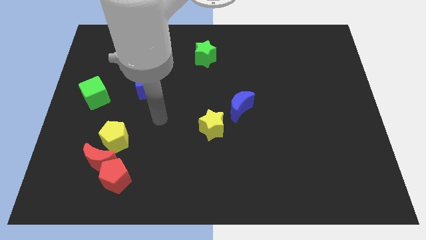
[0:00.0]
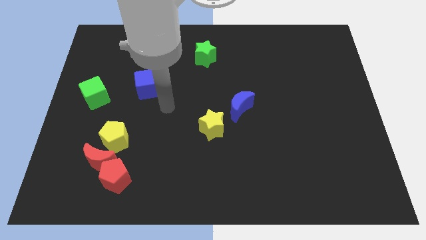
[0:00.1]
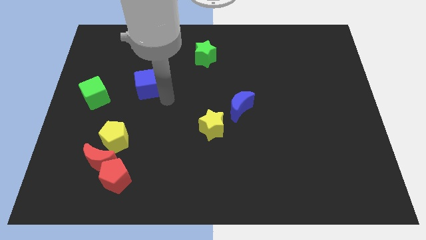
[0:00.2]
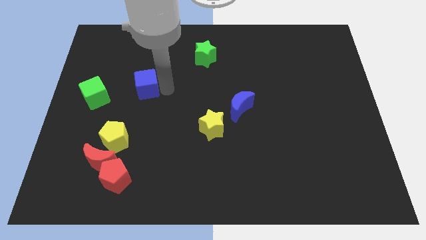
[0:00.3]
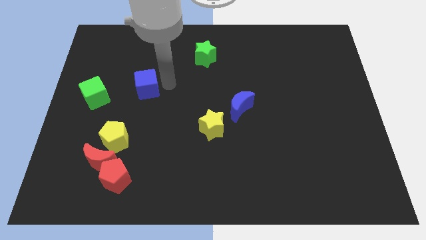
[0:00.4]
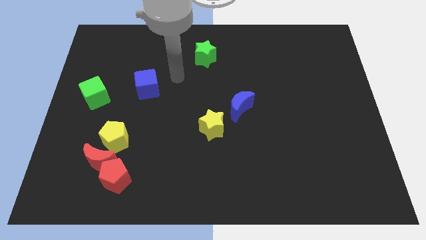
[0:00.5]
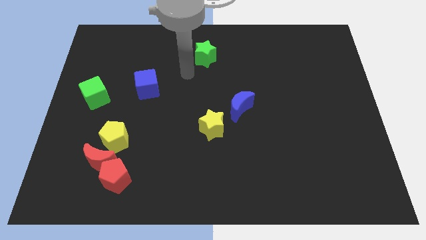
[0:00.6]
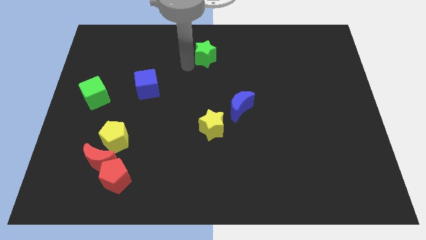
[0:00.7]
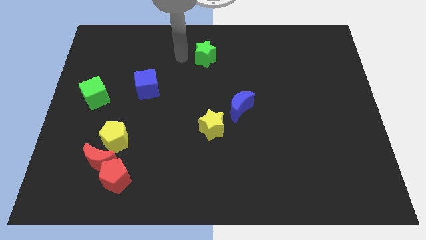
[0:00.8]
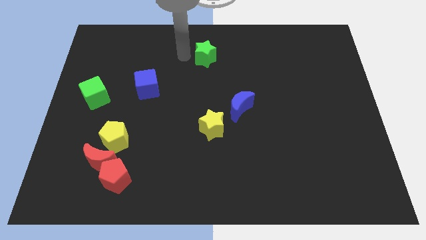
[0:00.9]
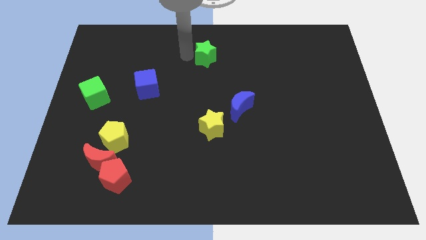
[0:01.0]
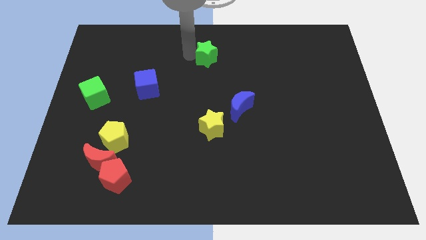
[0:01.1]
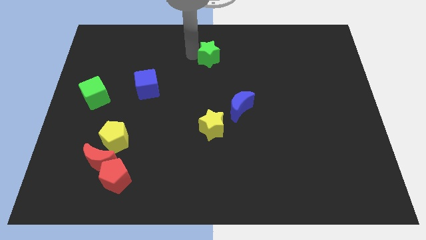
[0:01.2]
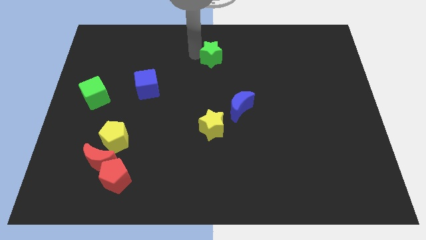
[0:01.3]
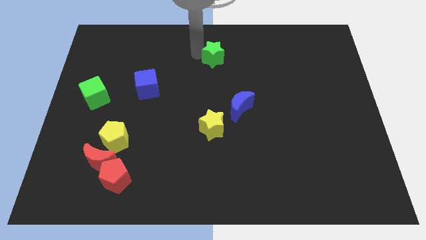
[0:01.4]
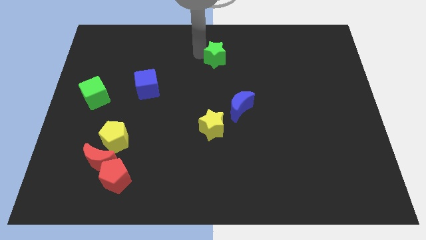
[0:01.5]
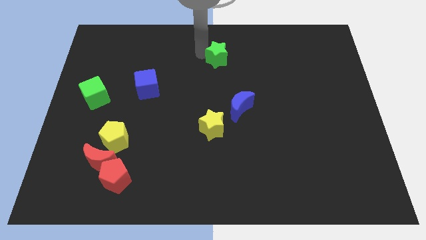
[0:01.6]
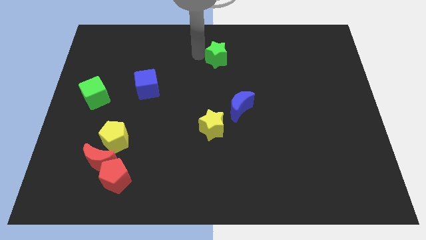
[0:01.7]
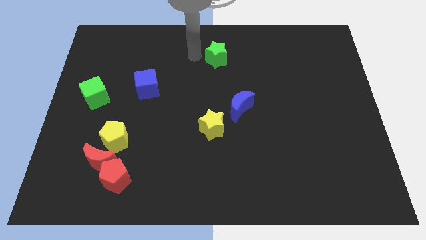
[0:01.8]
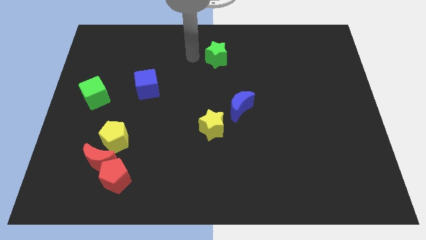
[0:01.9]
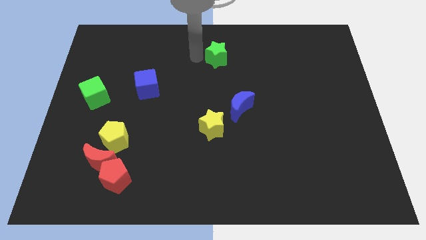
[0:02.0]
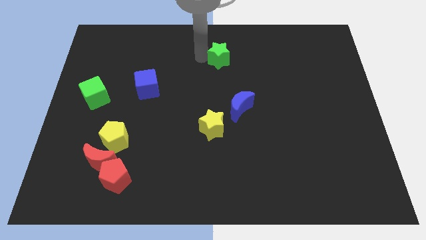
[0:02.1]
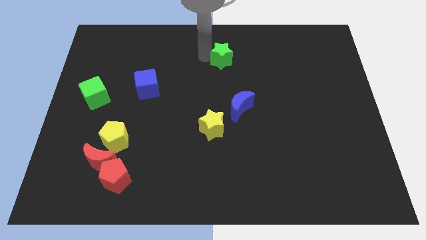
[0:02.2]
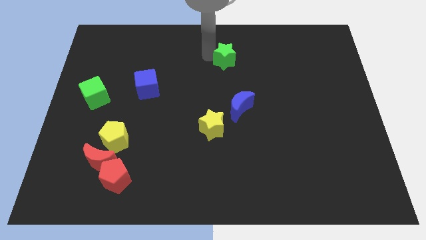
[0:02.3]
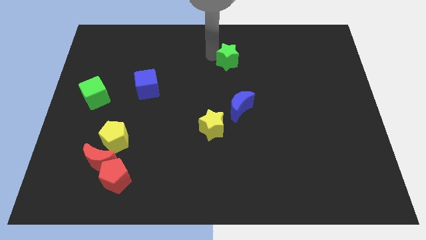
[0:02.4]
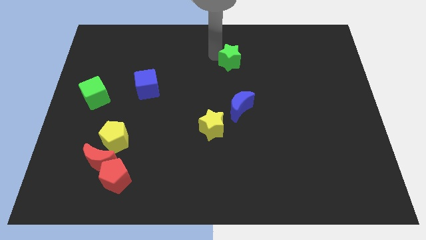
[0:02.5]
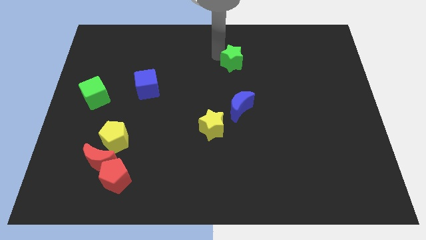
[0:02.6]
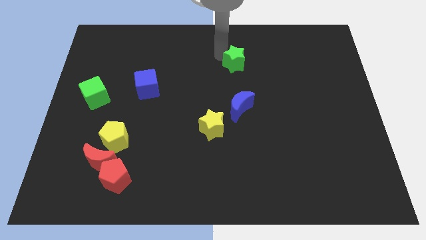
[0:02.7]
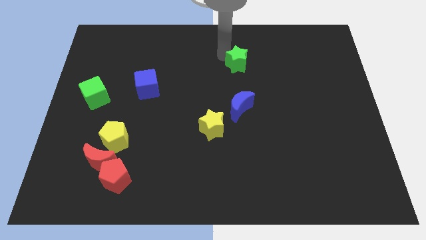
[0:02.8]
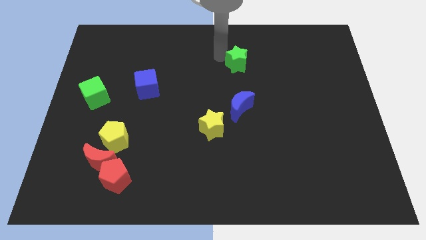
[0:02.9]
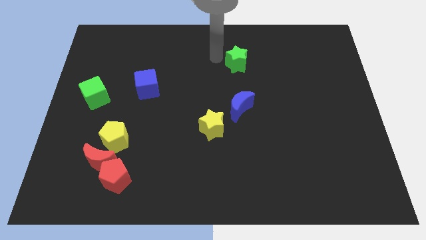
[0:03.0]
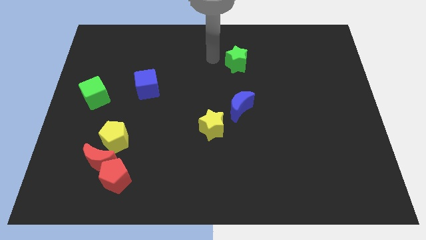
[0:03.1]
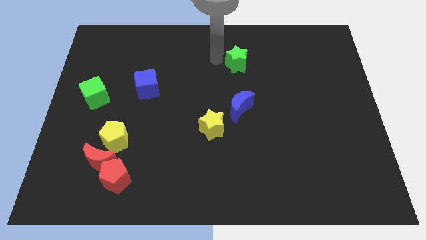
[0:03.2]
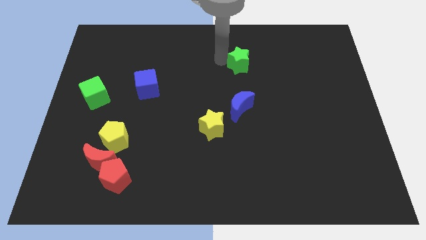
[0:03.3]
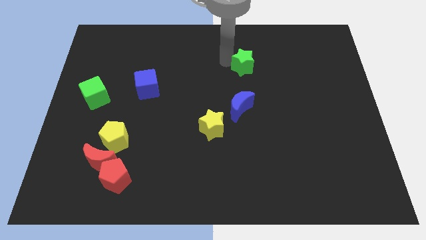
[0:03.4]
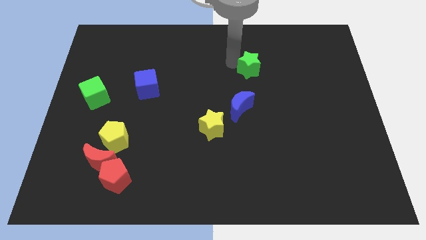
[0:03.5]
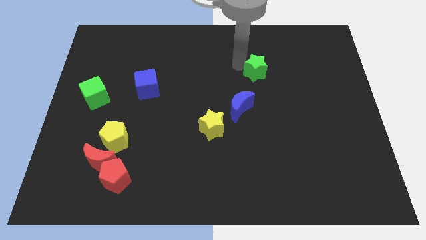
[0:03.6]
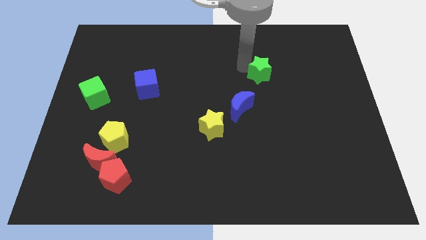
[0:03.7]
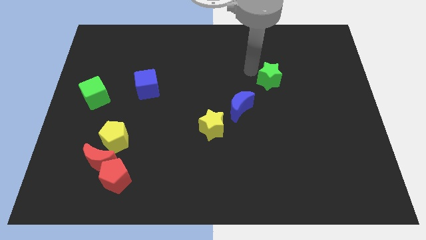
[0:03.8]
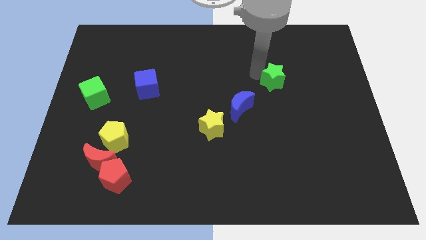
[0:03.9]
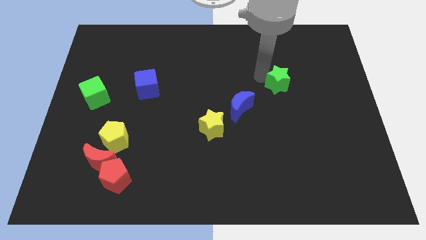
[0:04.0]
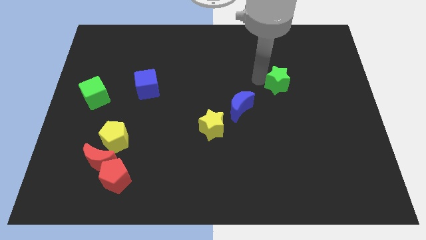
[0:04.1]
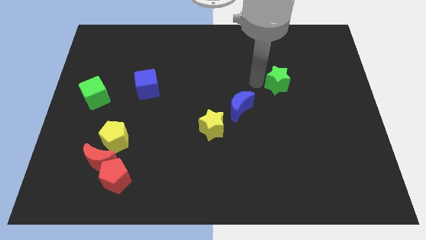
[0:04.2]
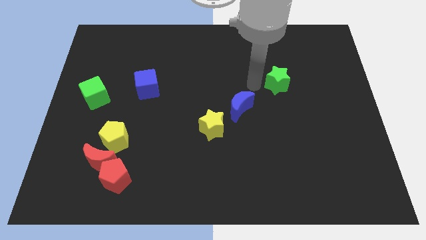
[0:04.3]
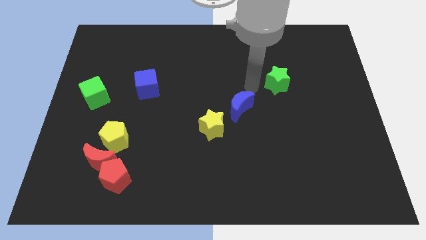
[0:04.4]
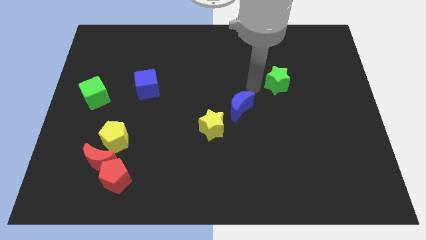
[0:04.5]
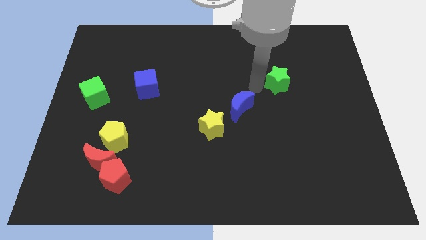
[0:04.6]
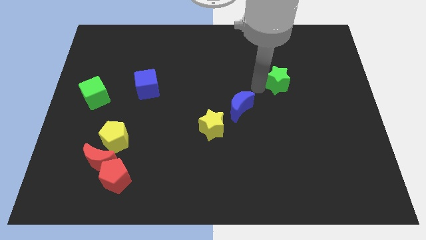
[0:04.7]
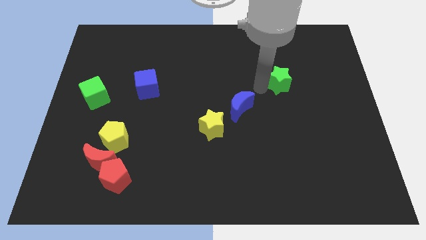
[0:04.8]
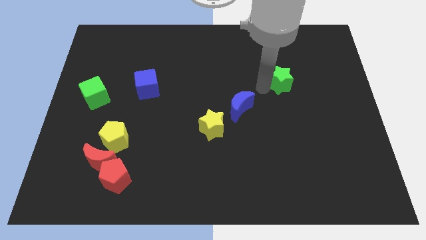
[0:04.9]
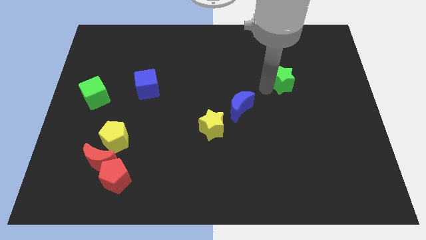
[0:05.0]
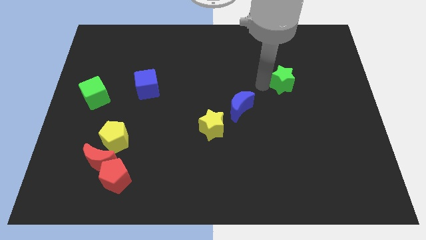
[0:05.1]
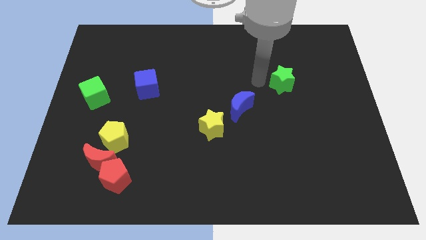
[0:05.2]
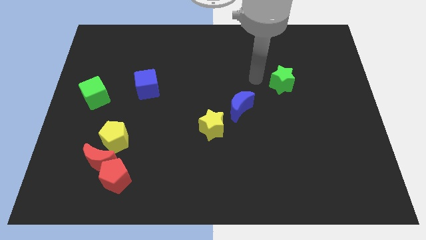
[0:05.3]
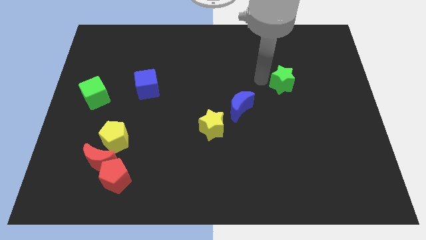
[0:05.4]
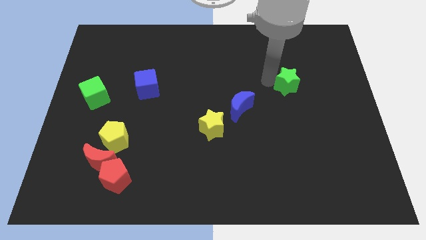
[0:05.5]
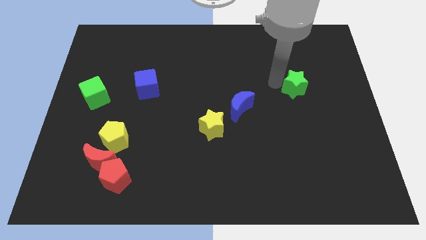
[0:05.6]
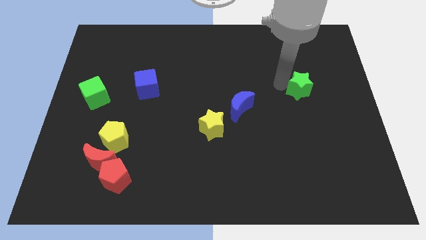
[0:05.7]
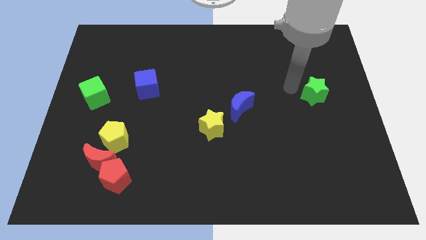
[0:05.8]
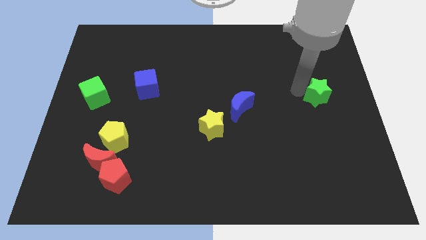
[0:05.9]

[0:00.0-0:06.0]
slide the green star to the right side
